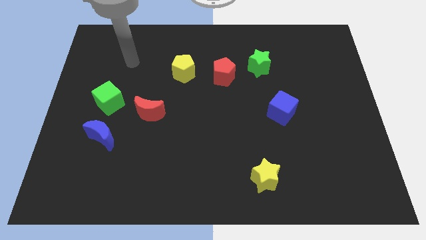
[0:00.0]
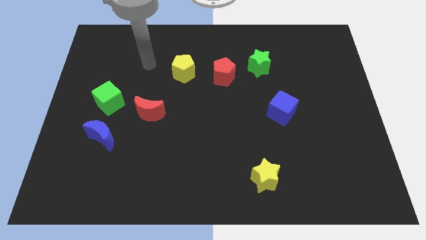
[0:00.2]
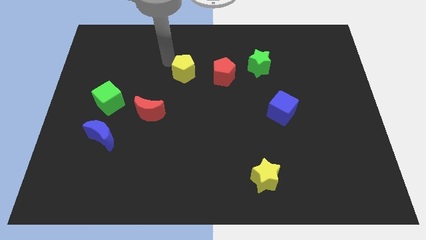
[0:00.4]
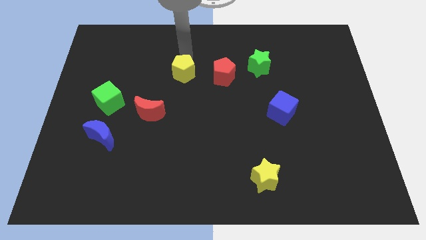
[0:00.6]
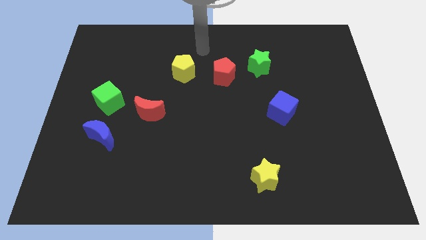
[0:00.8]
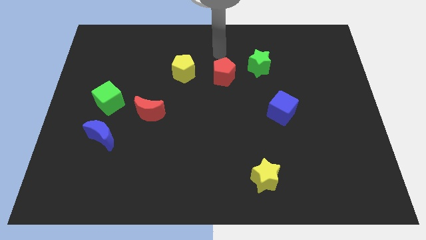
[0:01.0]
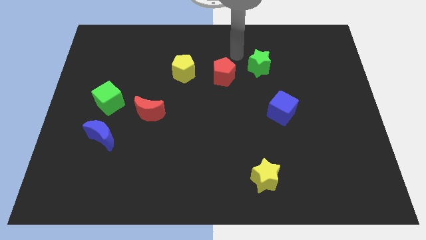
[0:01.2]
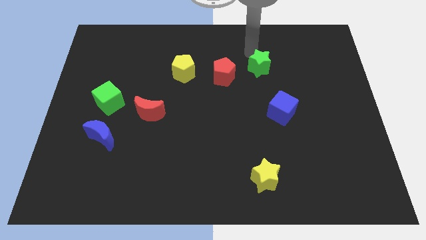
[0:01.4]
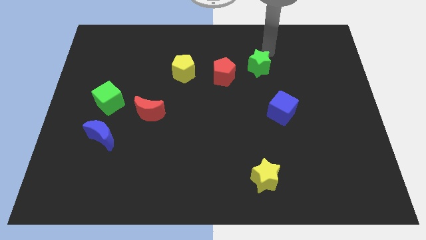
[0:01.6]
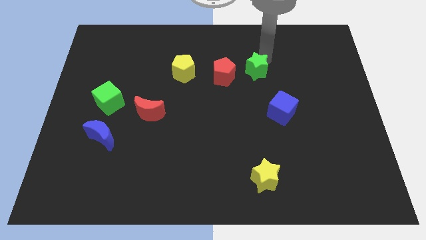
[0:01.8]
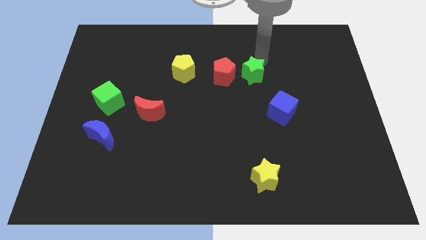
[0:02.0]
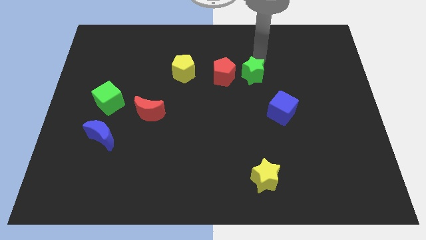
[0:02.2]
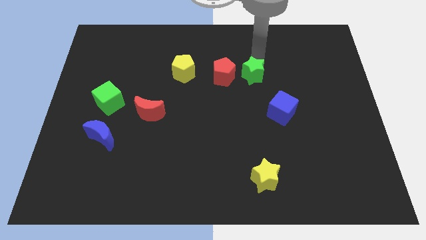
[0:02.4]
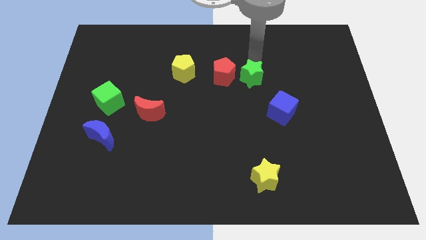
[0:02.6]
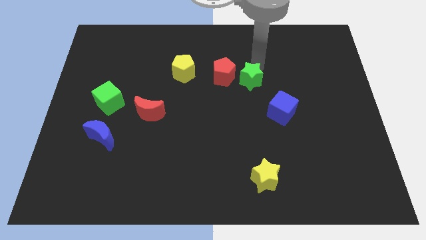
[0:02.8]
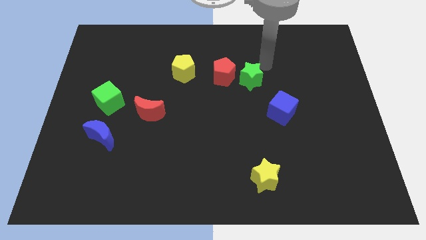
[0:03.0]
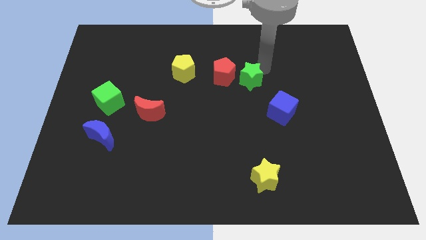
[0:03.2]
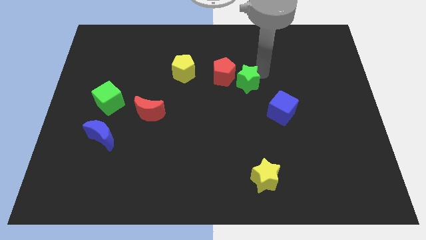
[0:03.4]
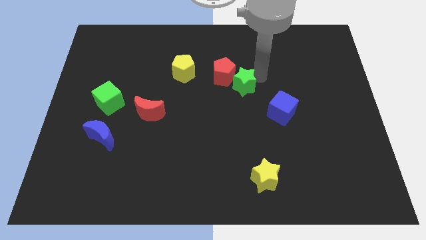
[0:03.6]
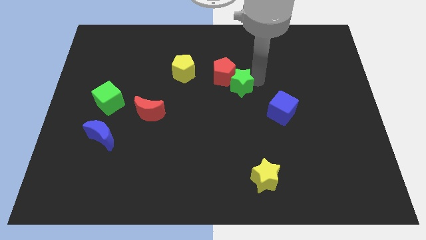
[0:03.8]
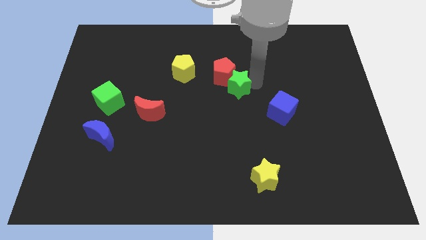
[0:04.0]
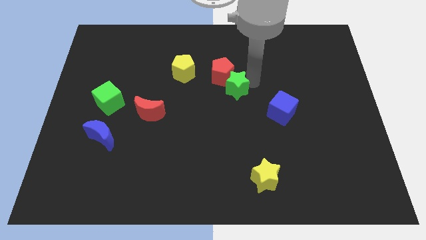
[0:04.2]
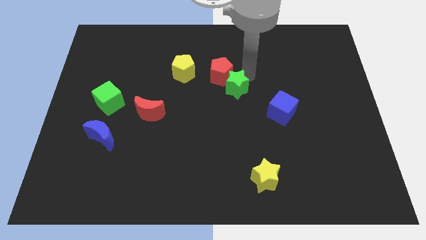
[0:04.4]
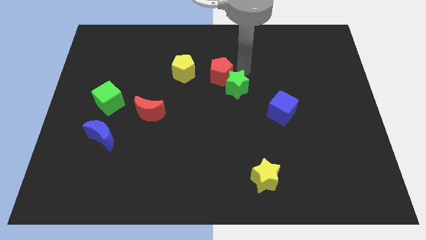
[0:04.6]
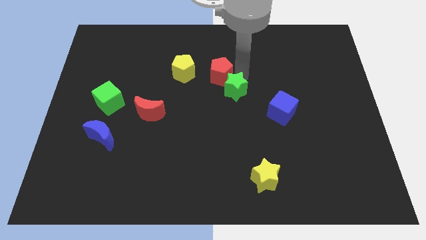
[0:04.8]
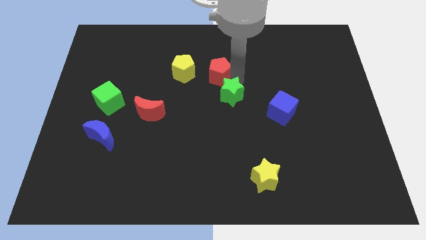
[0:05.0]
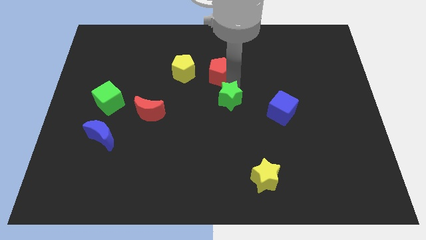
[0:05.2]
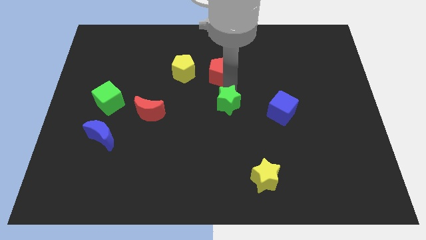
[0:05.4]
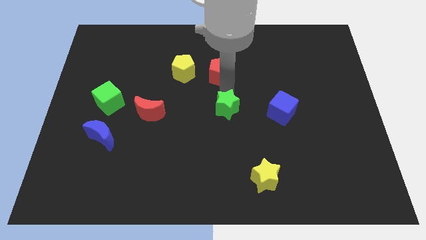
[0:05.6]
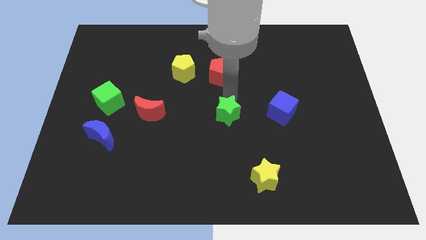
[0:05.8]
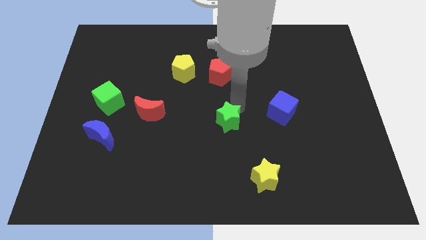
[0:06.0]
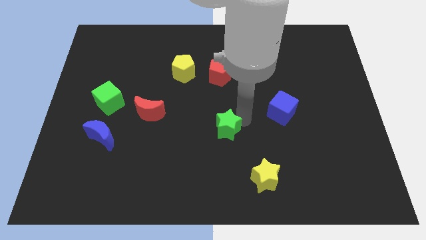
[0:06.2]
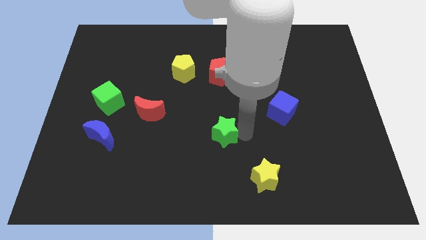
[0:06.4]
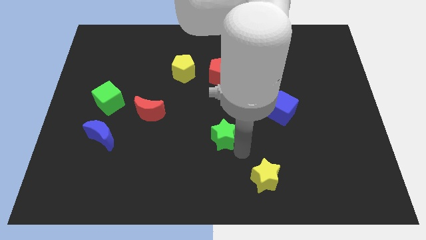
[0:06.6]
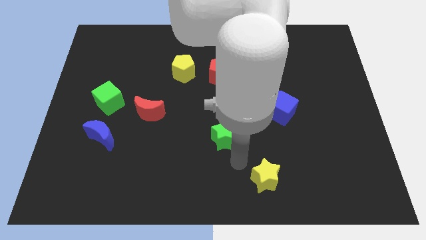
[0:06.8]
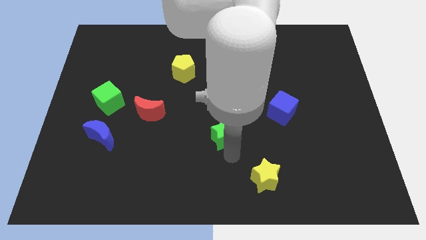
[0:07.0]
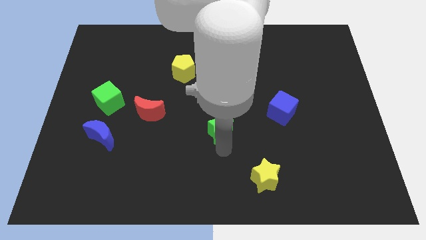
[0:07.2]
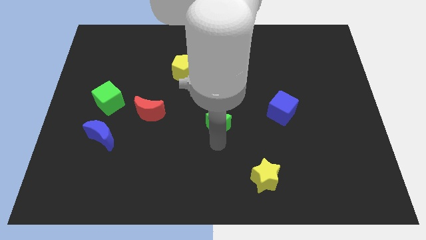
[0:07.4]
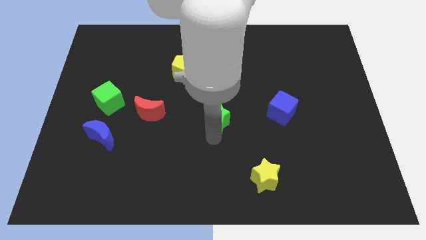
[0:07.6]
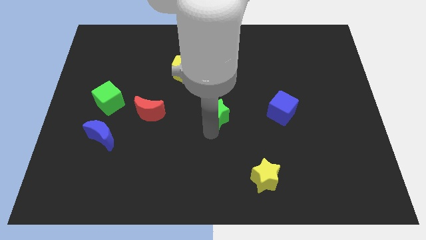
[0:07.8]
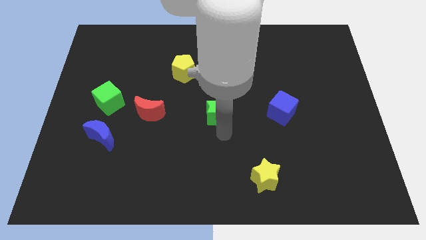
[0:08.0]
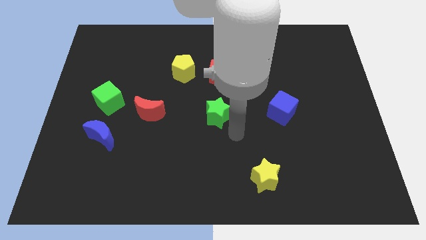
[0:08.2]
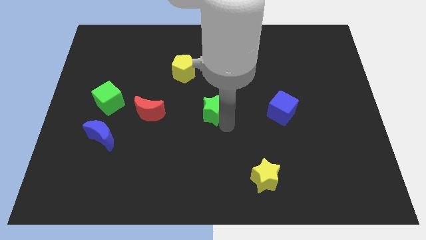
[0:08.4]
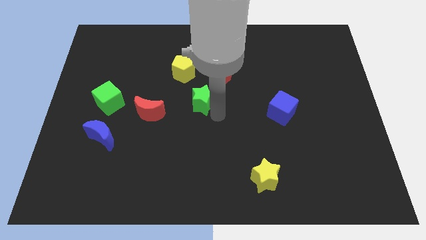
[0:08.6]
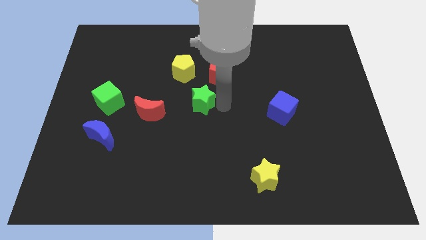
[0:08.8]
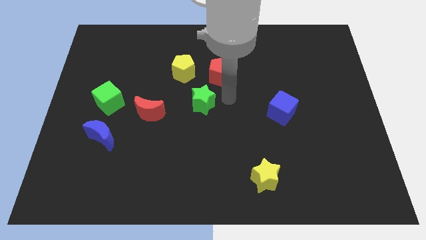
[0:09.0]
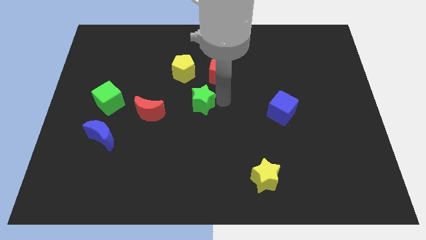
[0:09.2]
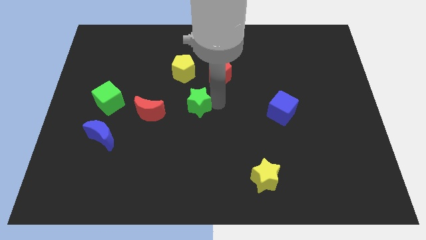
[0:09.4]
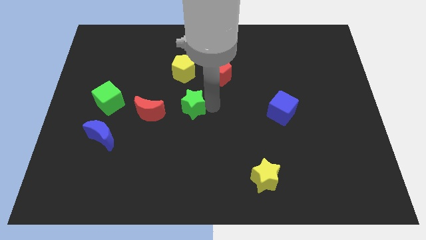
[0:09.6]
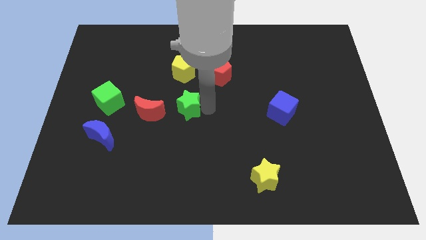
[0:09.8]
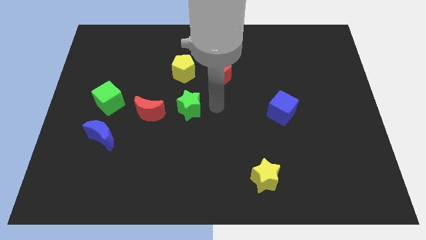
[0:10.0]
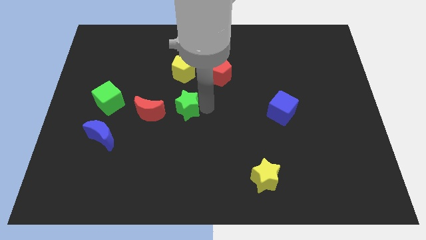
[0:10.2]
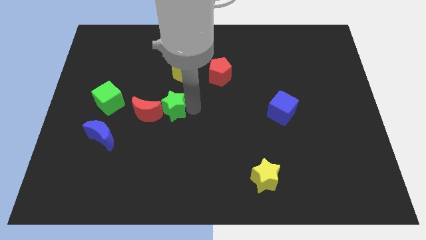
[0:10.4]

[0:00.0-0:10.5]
push the green star towards the red moon

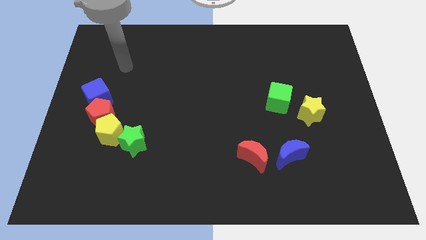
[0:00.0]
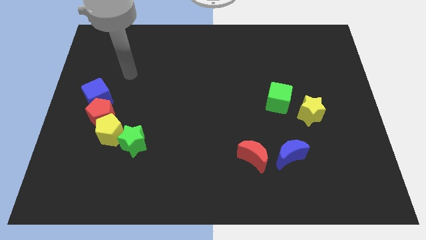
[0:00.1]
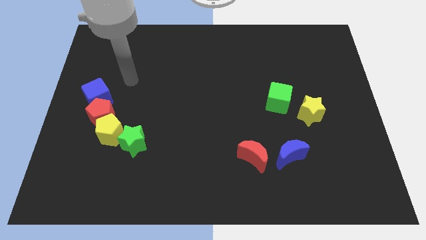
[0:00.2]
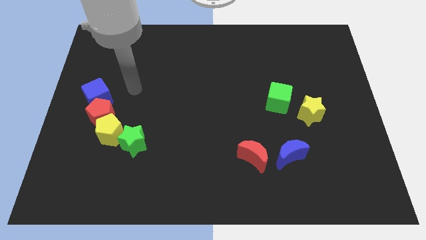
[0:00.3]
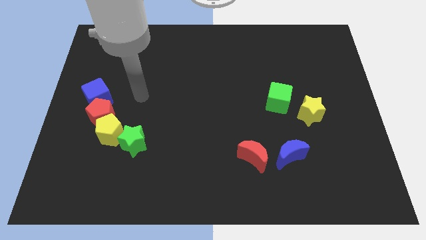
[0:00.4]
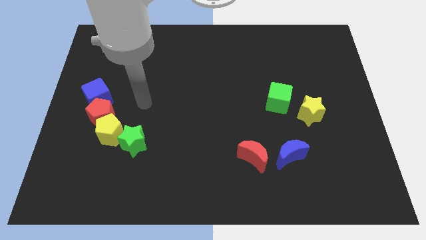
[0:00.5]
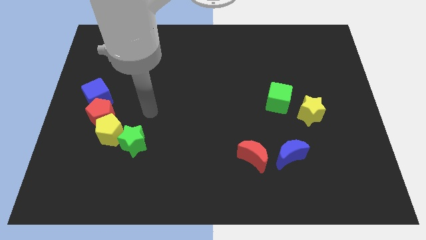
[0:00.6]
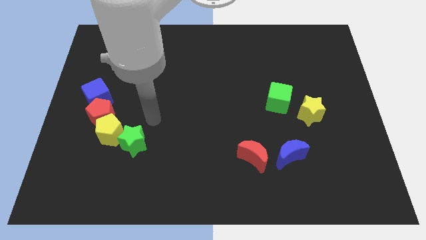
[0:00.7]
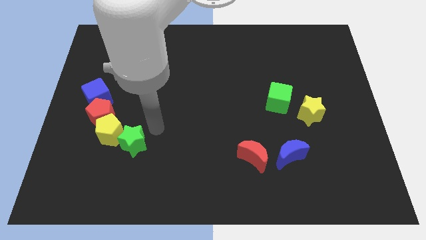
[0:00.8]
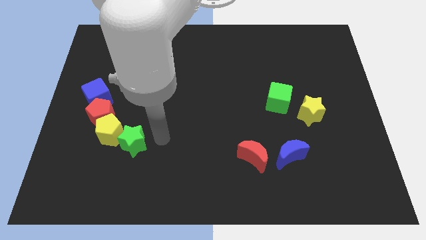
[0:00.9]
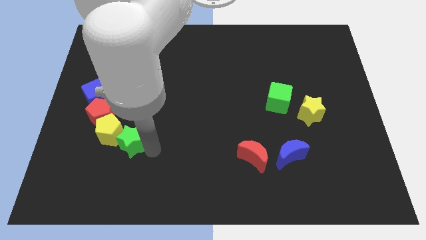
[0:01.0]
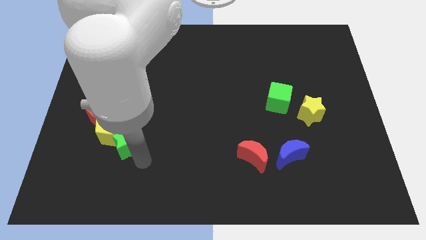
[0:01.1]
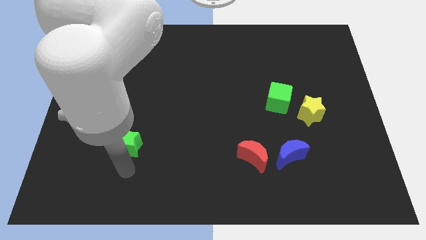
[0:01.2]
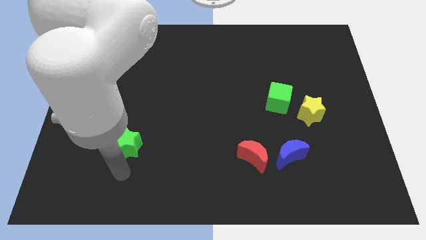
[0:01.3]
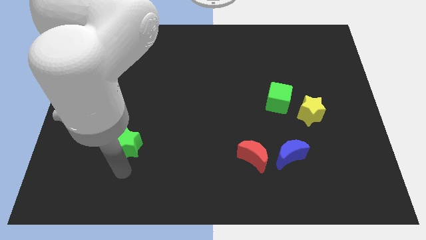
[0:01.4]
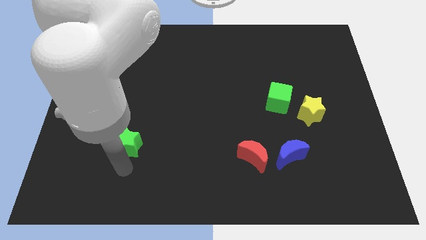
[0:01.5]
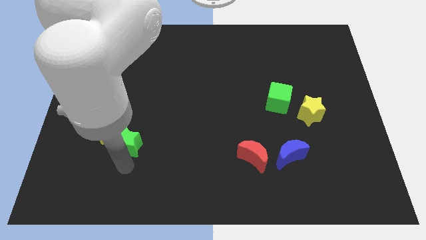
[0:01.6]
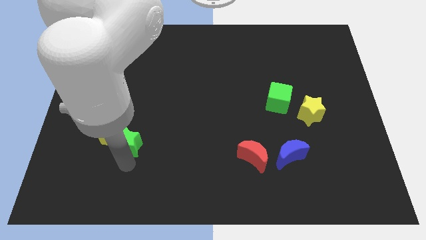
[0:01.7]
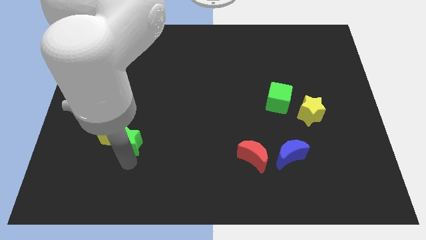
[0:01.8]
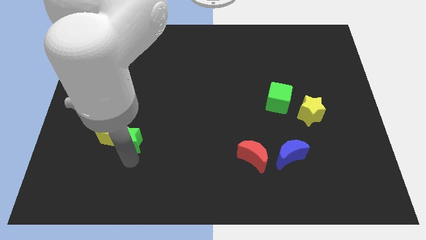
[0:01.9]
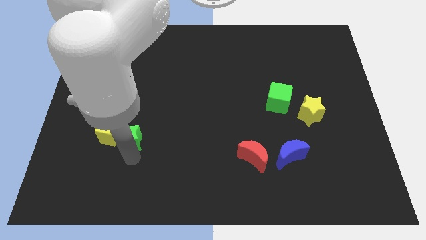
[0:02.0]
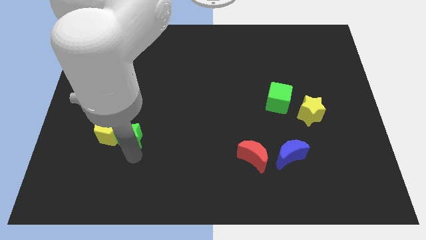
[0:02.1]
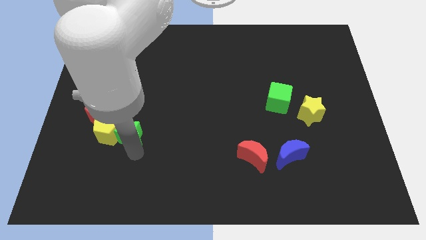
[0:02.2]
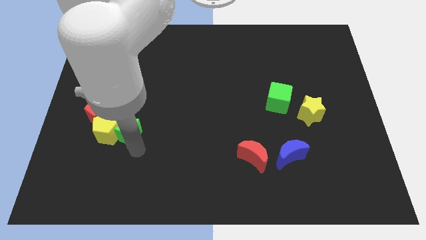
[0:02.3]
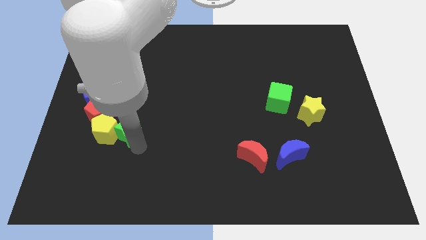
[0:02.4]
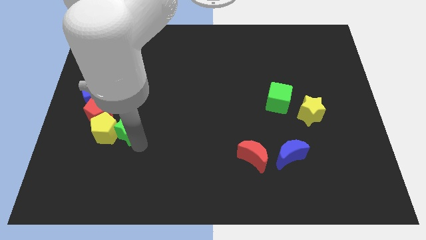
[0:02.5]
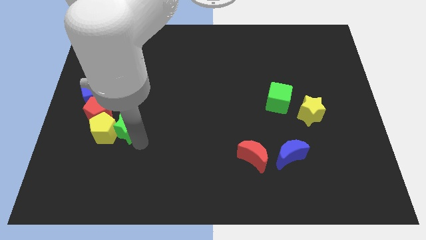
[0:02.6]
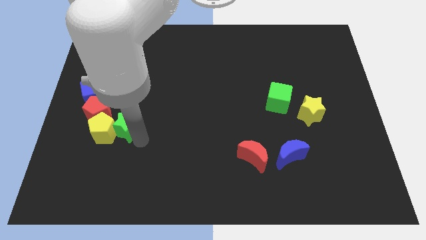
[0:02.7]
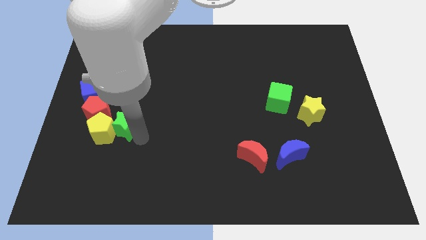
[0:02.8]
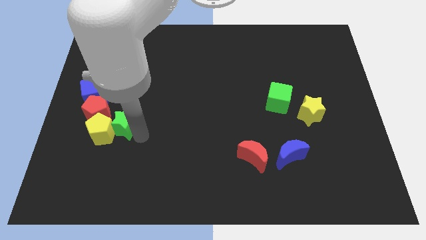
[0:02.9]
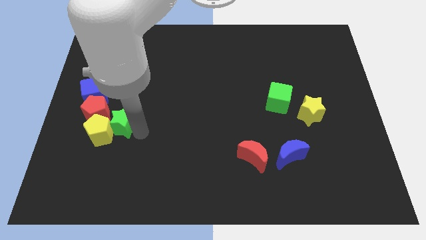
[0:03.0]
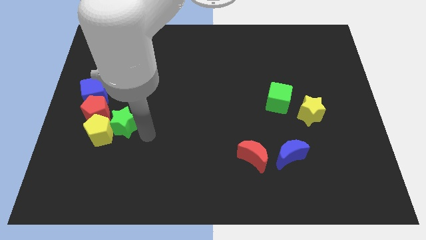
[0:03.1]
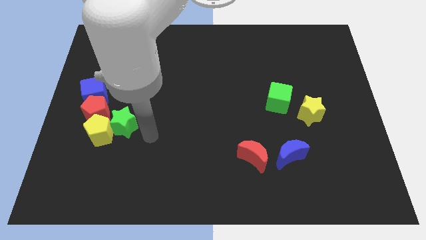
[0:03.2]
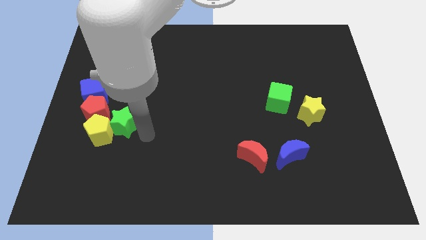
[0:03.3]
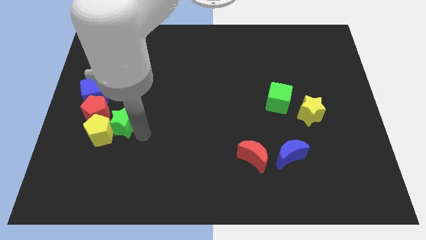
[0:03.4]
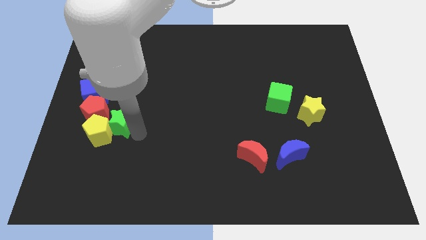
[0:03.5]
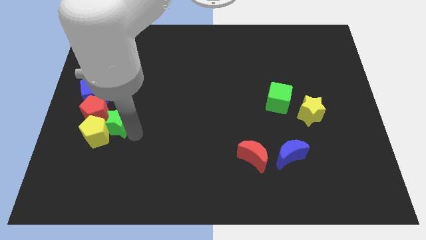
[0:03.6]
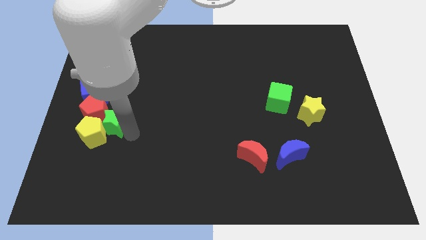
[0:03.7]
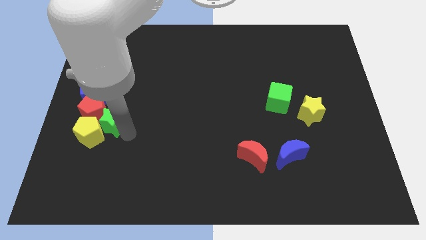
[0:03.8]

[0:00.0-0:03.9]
put the green star next to the red pentagon
